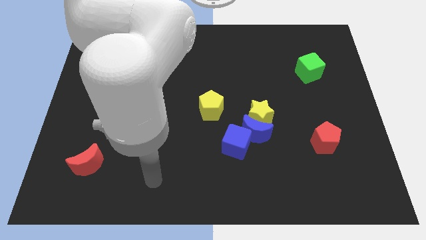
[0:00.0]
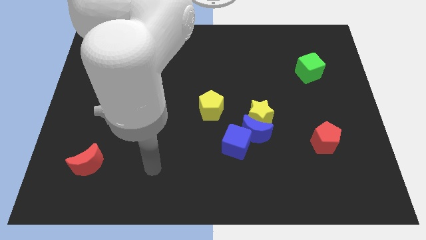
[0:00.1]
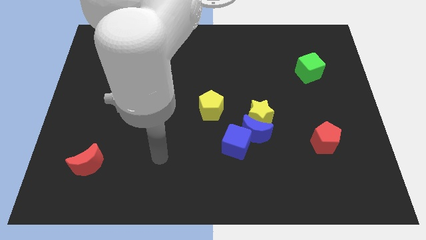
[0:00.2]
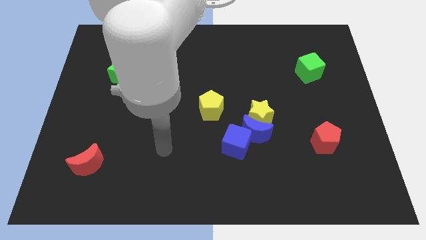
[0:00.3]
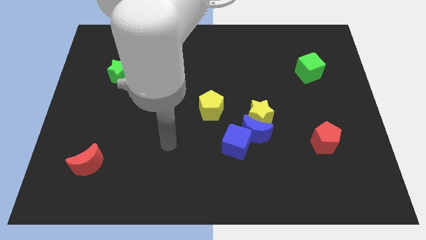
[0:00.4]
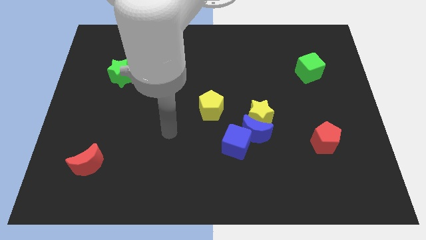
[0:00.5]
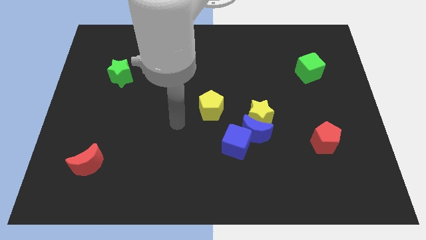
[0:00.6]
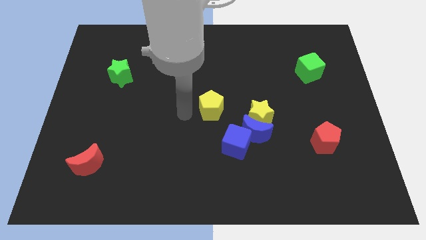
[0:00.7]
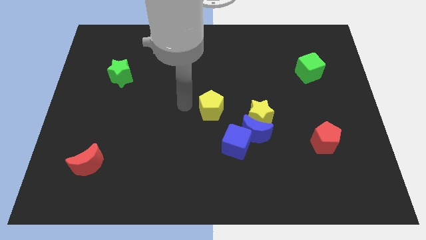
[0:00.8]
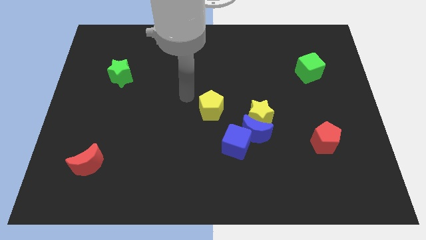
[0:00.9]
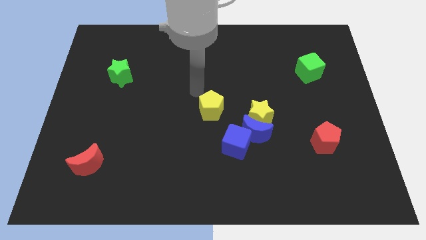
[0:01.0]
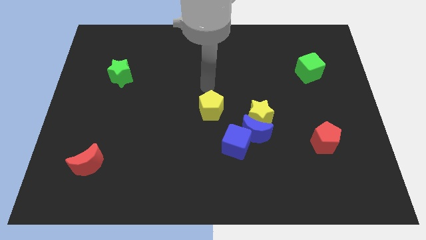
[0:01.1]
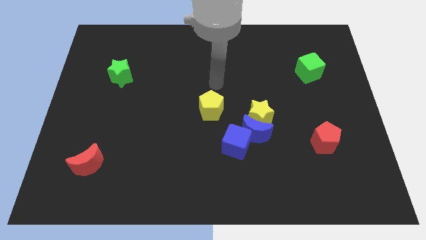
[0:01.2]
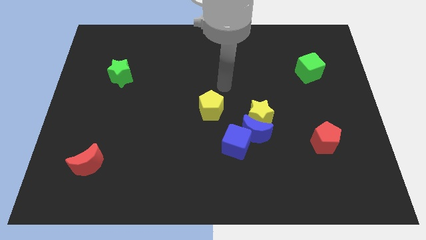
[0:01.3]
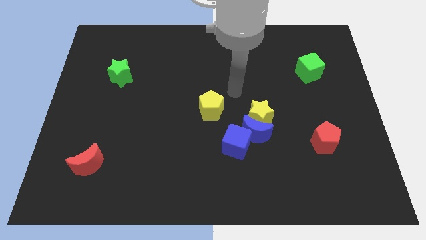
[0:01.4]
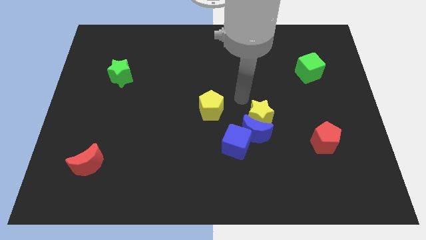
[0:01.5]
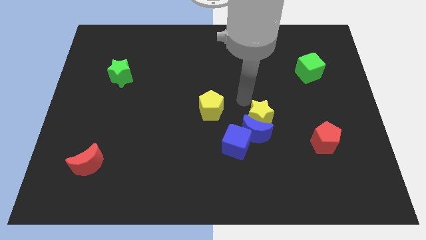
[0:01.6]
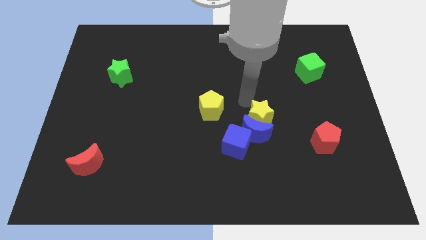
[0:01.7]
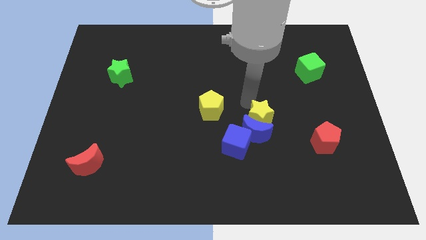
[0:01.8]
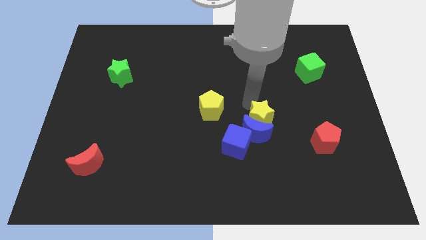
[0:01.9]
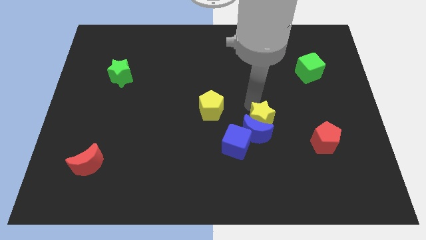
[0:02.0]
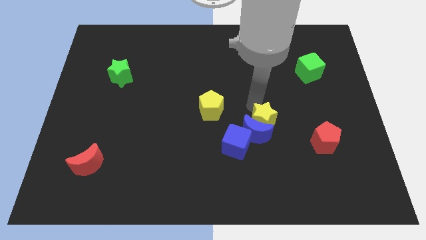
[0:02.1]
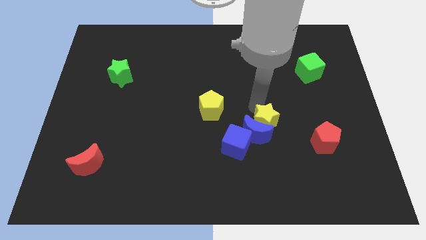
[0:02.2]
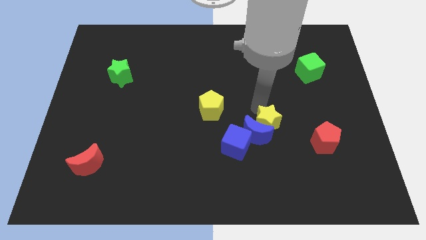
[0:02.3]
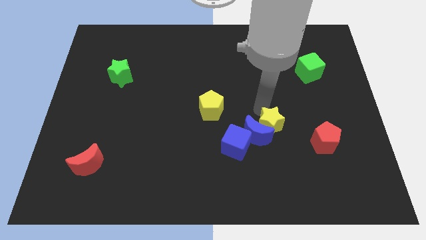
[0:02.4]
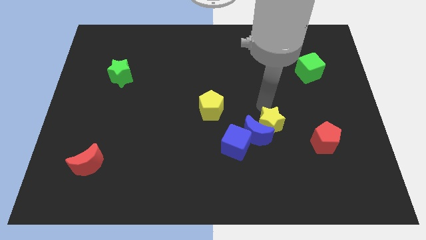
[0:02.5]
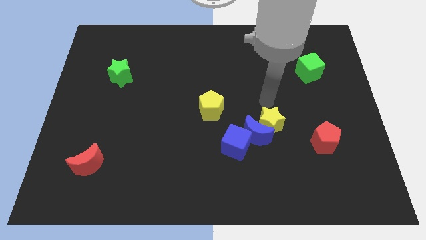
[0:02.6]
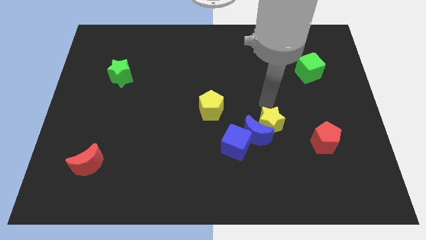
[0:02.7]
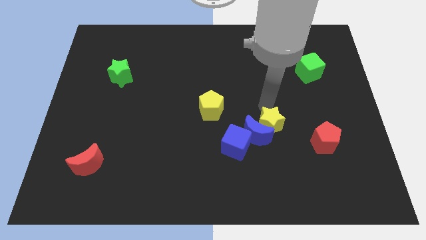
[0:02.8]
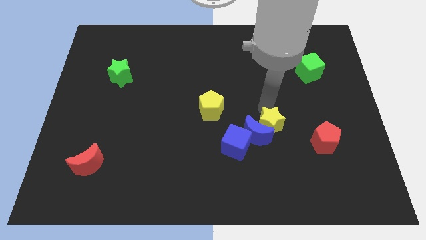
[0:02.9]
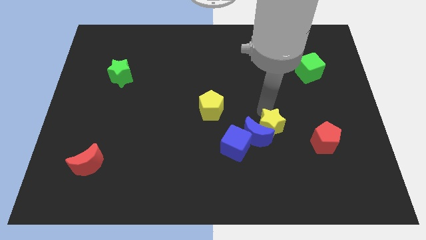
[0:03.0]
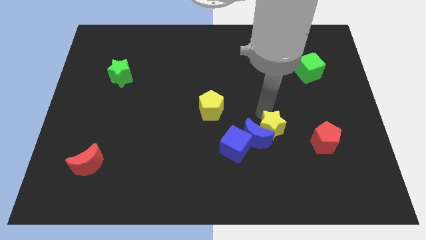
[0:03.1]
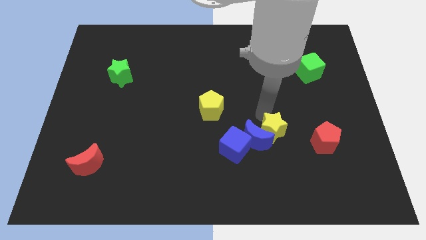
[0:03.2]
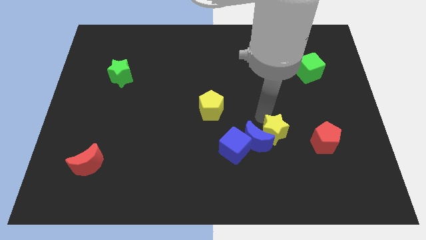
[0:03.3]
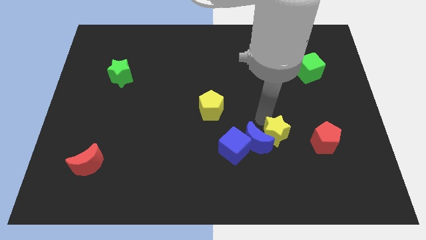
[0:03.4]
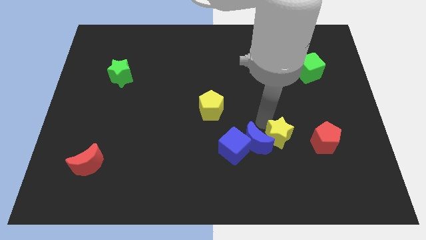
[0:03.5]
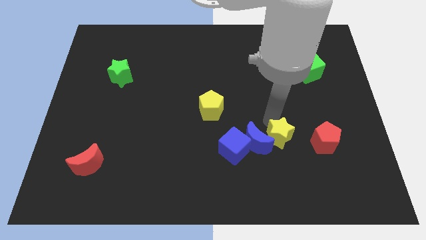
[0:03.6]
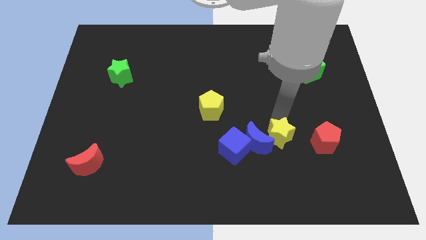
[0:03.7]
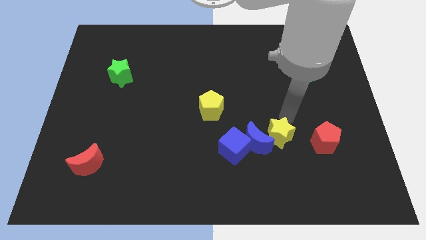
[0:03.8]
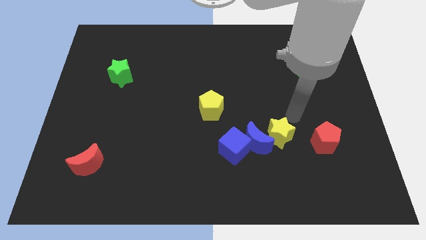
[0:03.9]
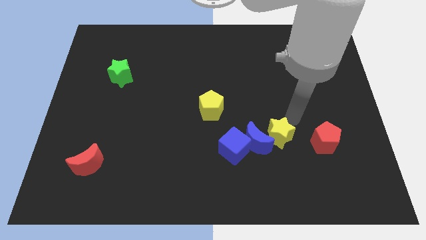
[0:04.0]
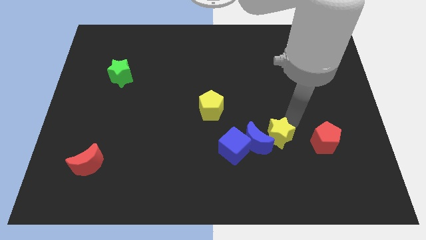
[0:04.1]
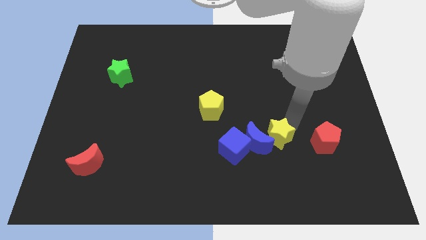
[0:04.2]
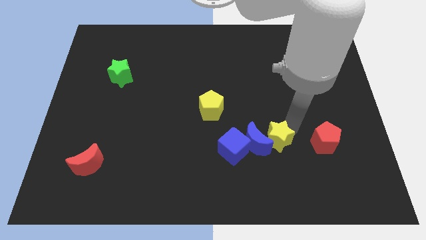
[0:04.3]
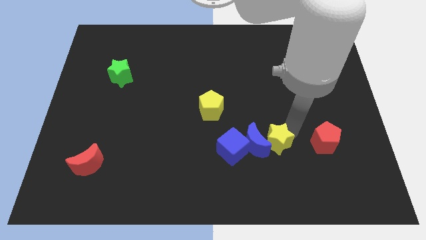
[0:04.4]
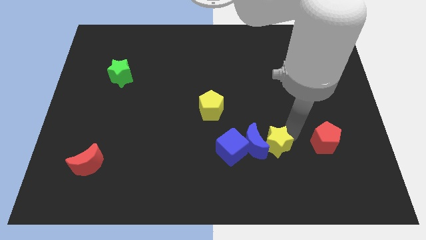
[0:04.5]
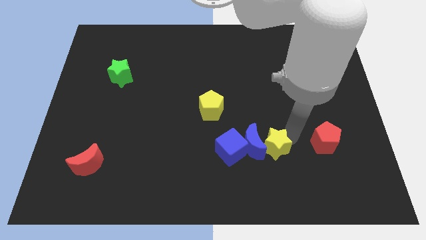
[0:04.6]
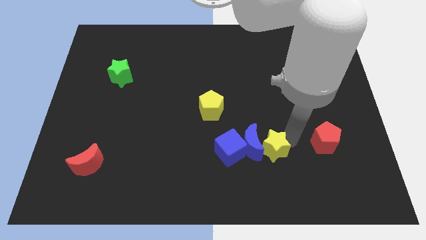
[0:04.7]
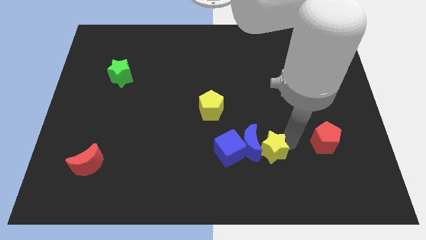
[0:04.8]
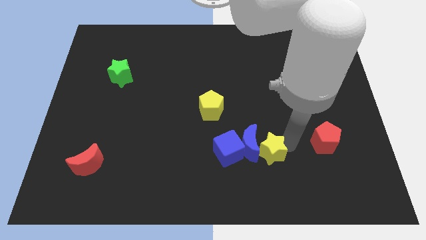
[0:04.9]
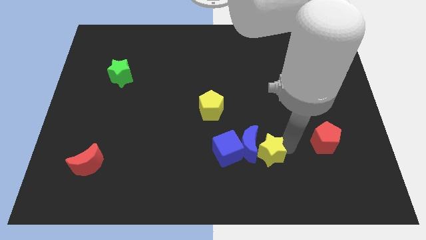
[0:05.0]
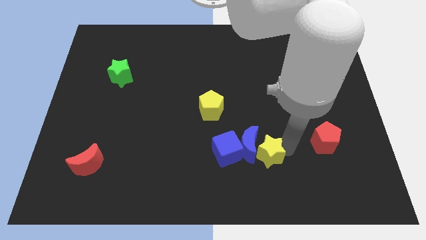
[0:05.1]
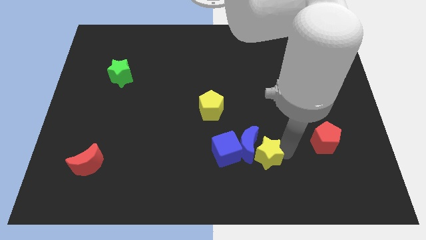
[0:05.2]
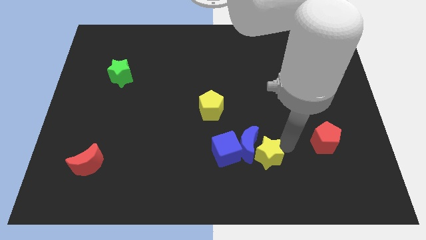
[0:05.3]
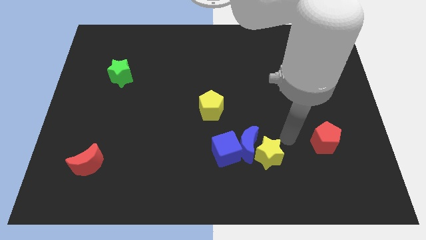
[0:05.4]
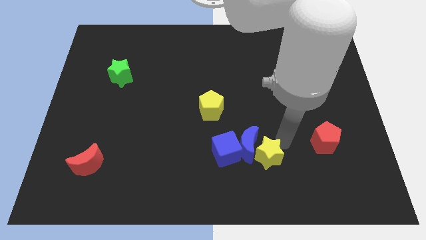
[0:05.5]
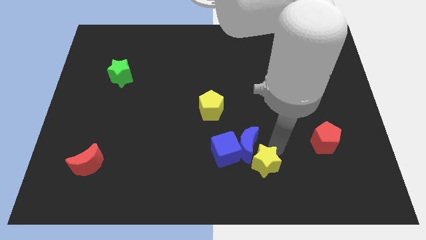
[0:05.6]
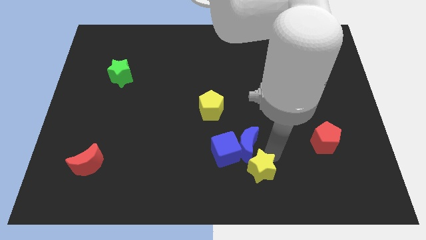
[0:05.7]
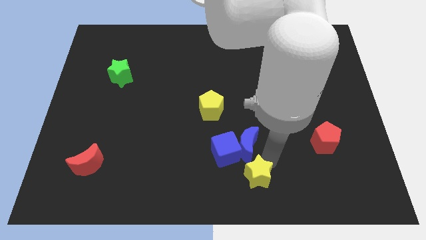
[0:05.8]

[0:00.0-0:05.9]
slide the yellow star to the bottom side

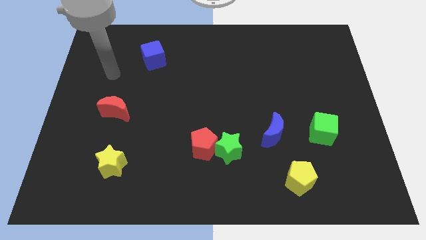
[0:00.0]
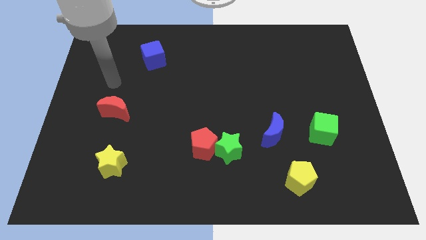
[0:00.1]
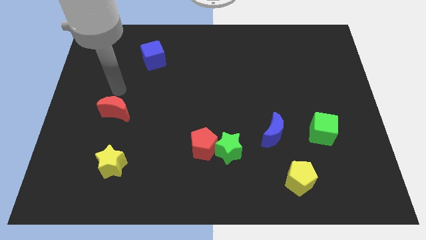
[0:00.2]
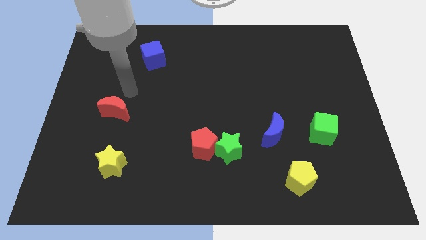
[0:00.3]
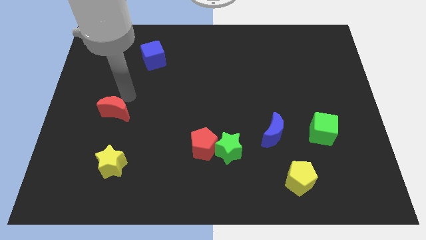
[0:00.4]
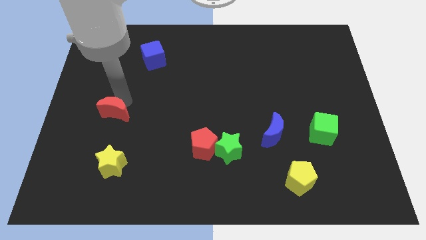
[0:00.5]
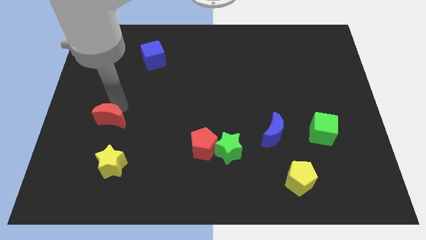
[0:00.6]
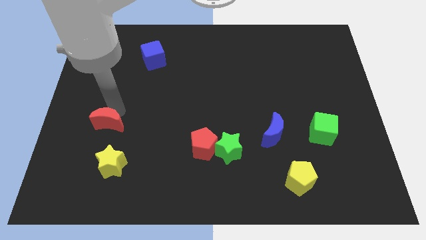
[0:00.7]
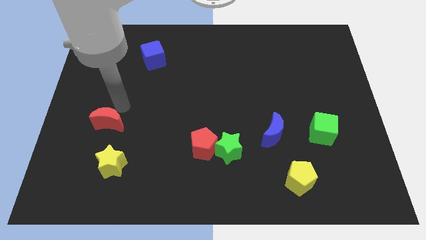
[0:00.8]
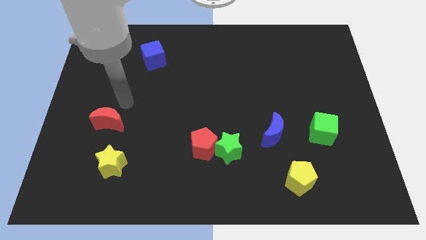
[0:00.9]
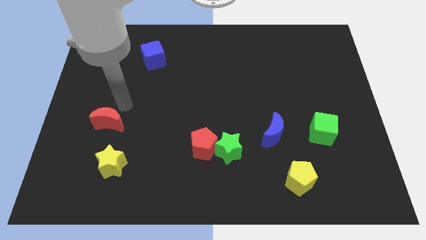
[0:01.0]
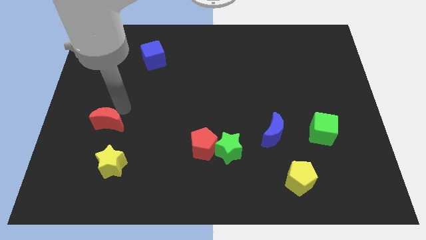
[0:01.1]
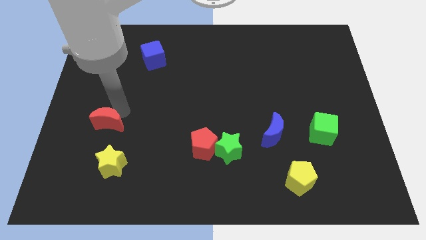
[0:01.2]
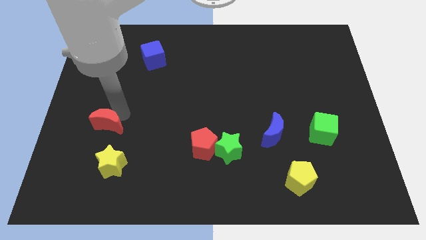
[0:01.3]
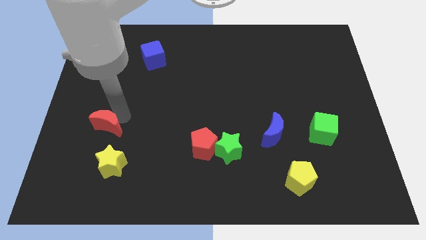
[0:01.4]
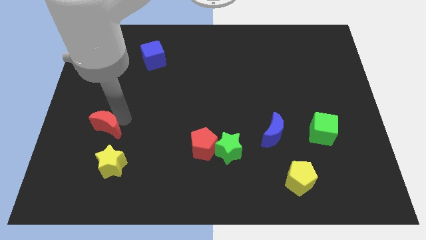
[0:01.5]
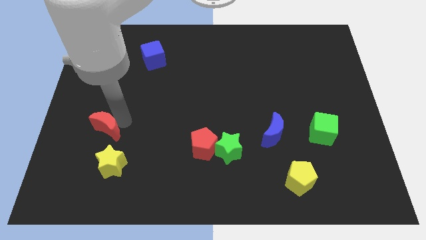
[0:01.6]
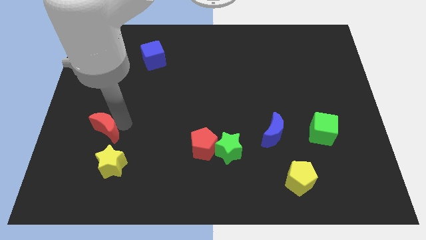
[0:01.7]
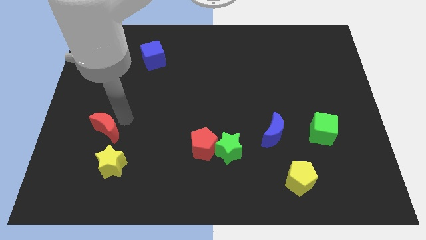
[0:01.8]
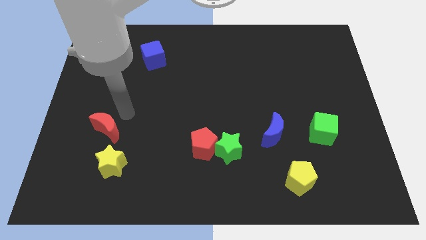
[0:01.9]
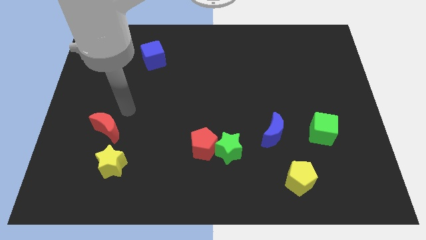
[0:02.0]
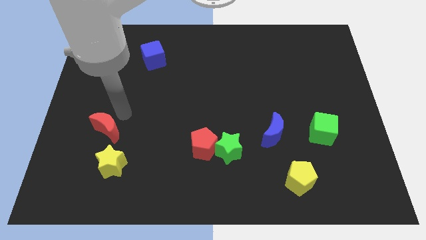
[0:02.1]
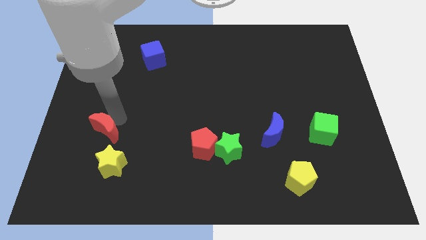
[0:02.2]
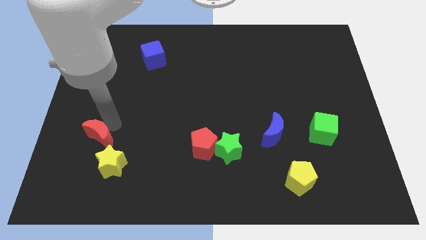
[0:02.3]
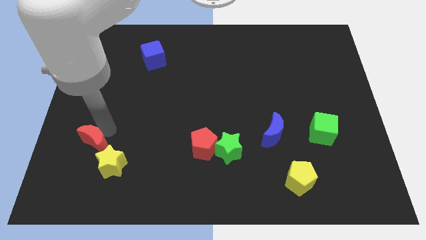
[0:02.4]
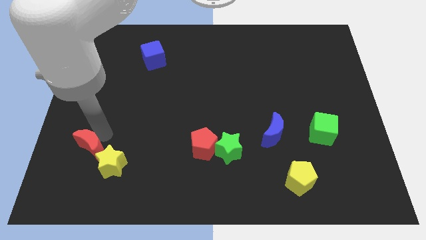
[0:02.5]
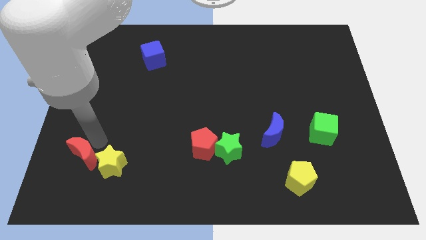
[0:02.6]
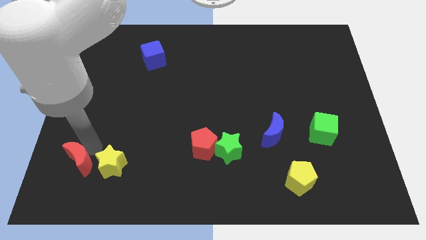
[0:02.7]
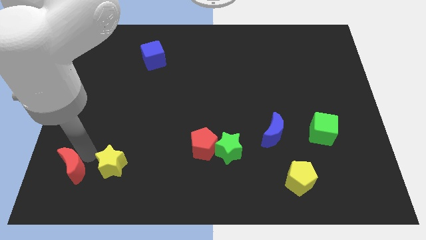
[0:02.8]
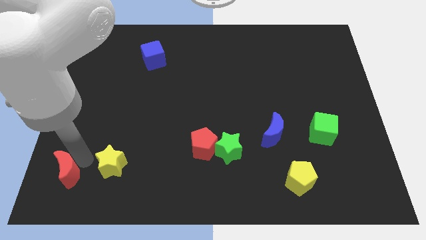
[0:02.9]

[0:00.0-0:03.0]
put the red moon to the bottom left
